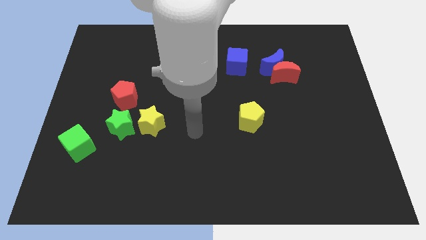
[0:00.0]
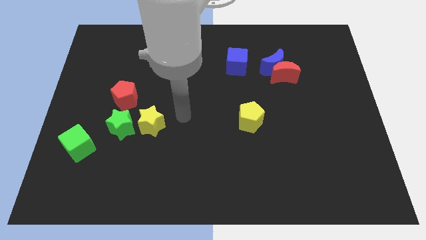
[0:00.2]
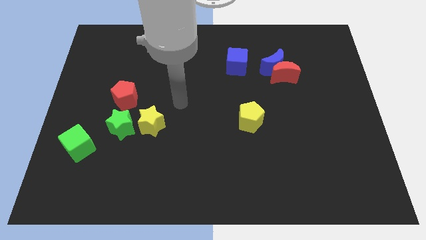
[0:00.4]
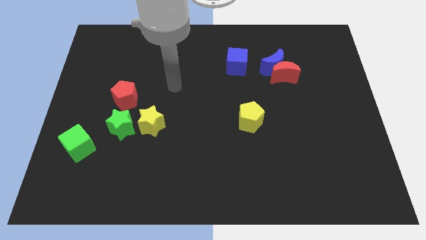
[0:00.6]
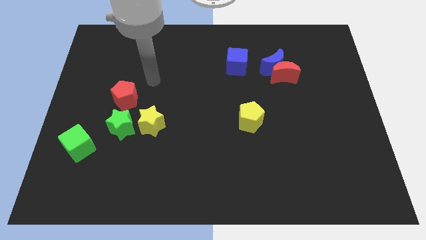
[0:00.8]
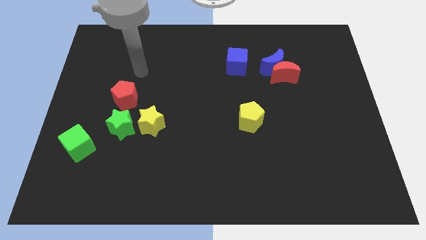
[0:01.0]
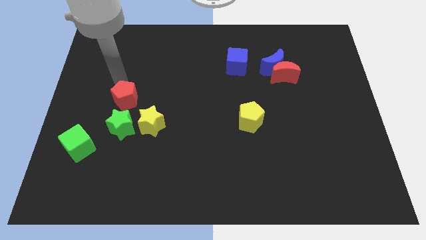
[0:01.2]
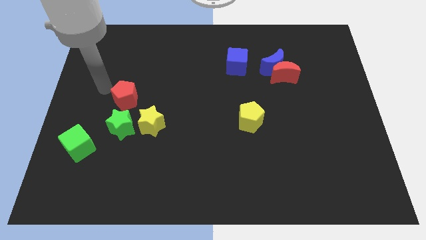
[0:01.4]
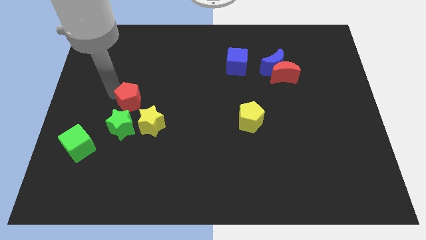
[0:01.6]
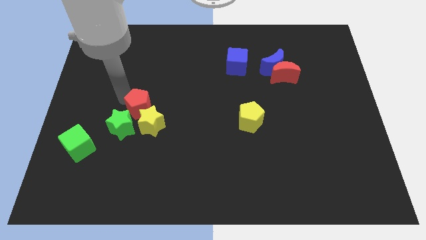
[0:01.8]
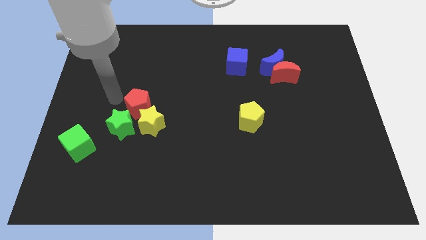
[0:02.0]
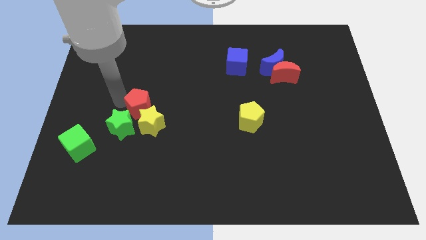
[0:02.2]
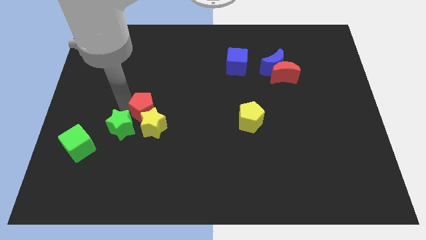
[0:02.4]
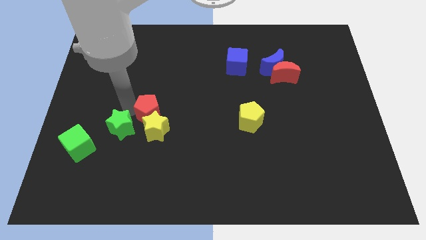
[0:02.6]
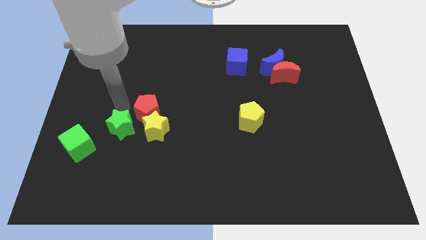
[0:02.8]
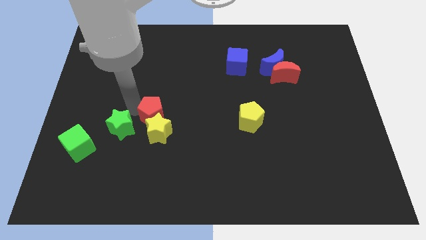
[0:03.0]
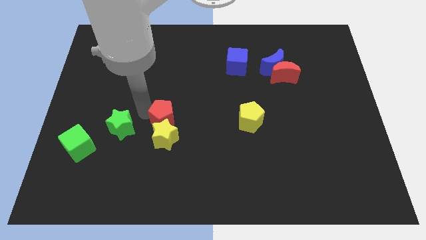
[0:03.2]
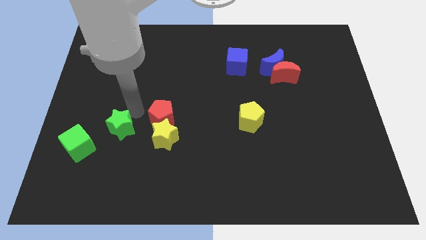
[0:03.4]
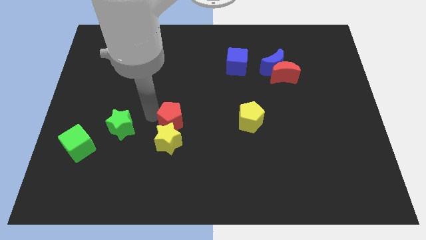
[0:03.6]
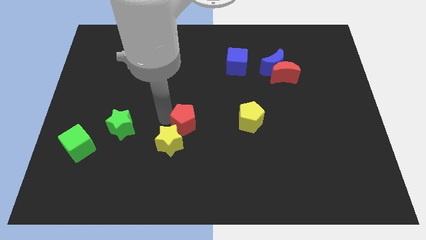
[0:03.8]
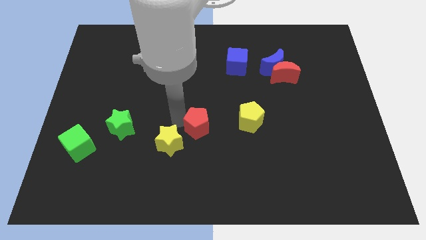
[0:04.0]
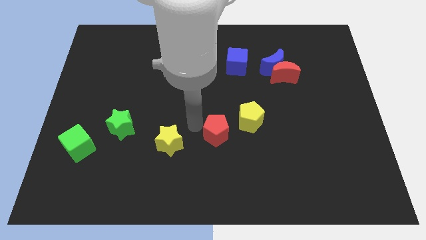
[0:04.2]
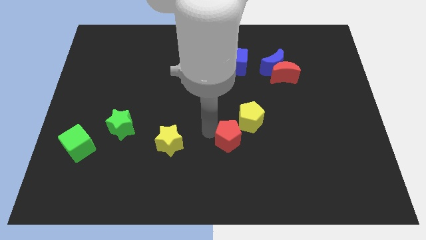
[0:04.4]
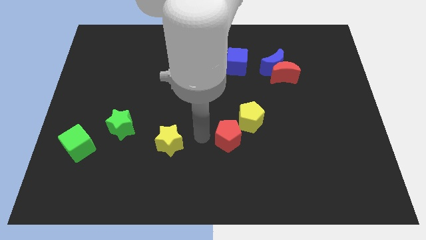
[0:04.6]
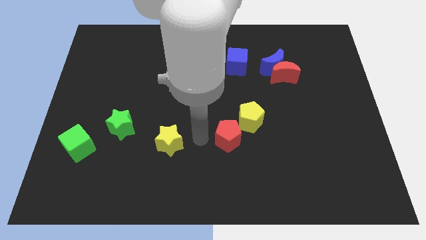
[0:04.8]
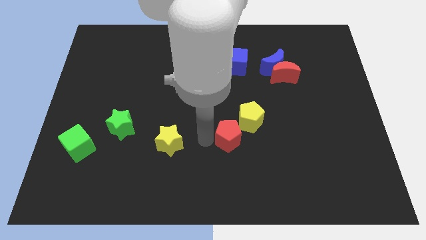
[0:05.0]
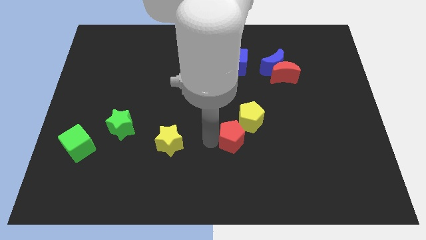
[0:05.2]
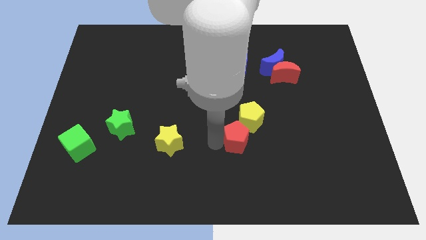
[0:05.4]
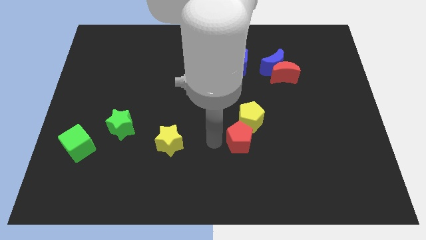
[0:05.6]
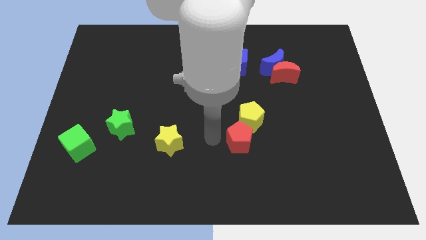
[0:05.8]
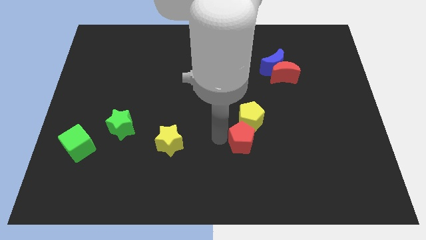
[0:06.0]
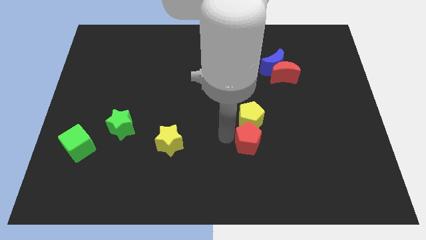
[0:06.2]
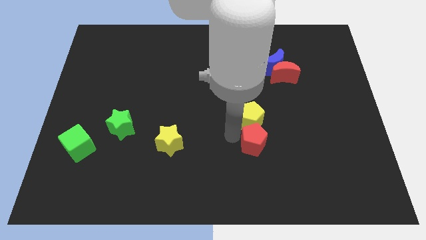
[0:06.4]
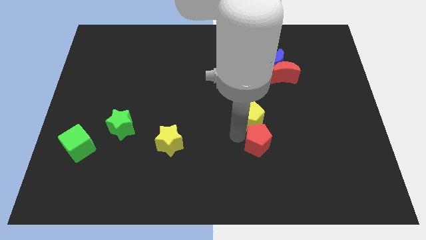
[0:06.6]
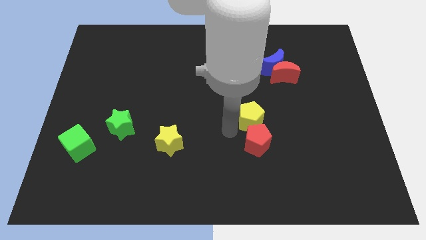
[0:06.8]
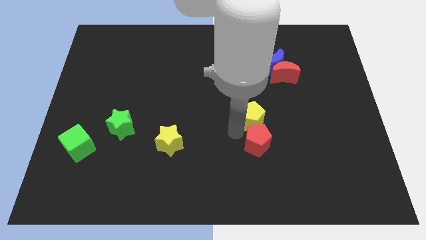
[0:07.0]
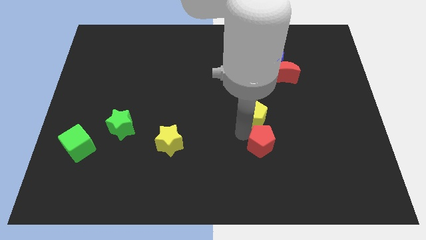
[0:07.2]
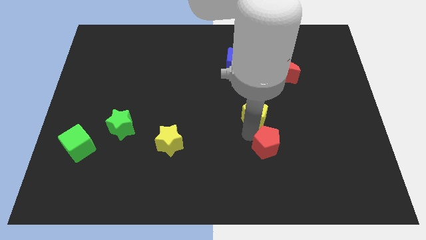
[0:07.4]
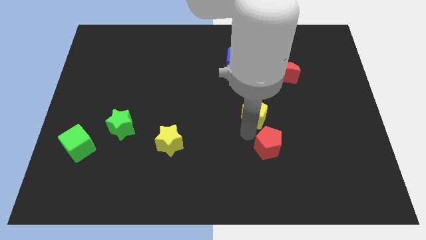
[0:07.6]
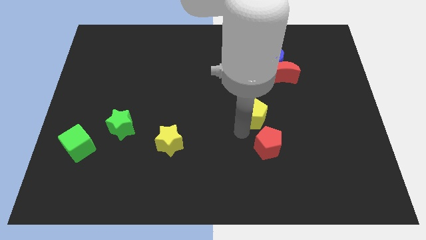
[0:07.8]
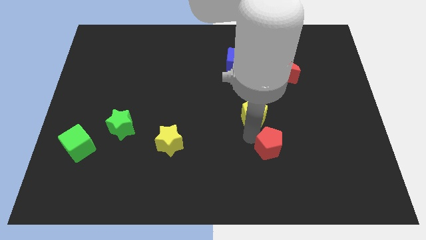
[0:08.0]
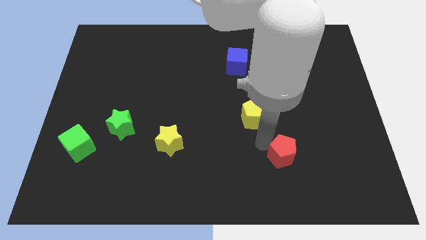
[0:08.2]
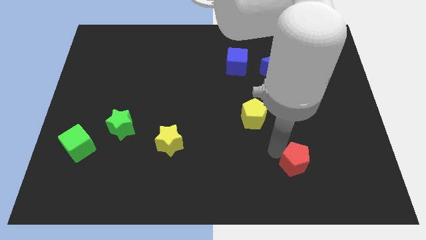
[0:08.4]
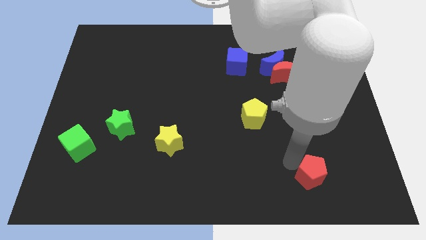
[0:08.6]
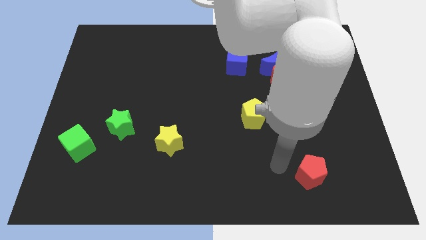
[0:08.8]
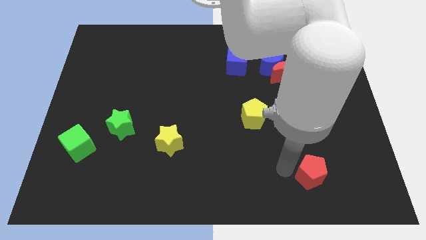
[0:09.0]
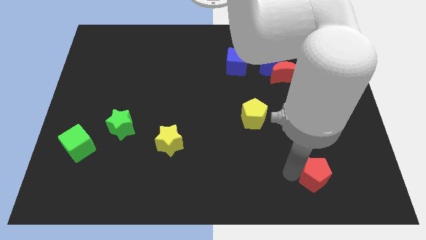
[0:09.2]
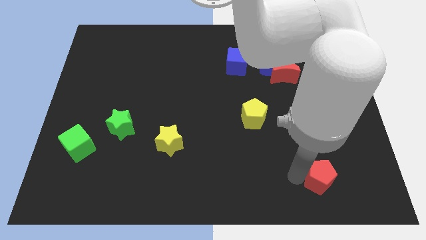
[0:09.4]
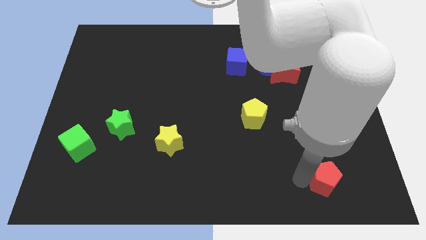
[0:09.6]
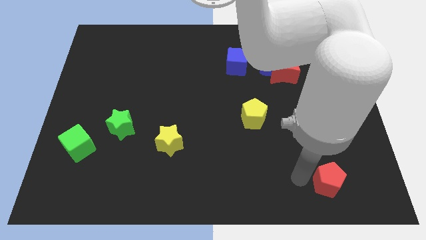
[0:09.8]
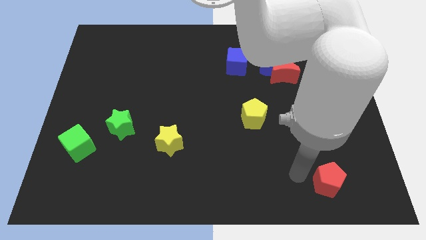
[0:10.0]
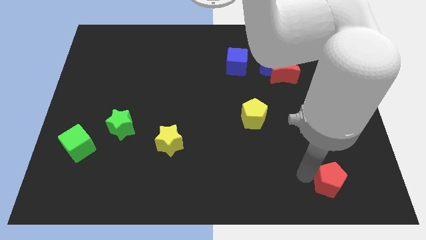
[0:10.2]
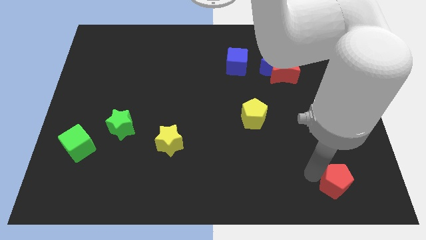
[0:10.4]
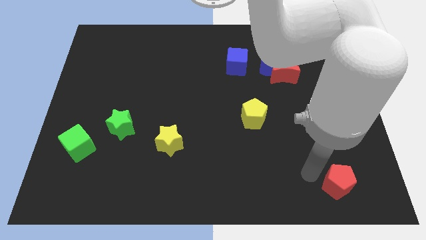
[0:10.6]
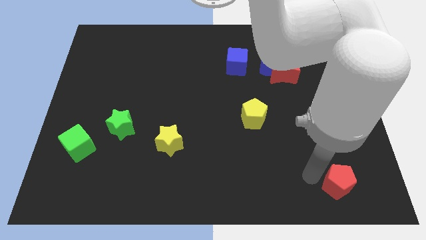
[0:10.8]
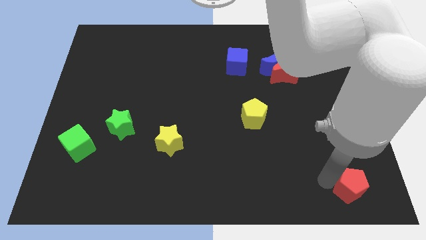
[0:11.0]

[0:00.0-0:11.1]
push the red pentagon to the bottom right
